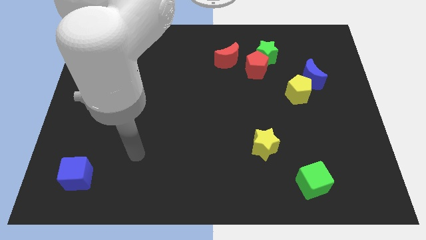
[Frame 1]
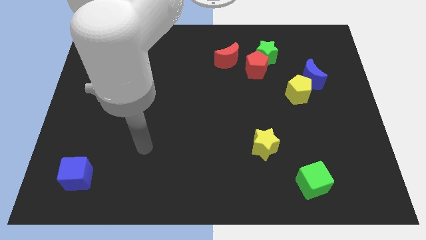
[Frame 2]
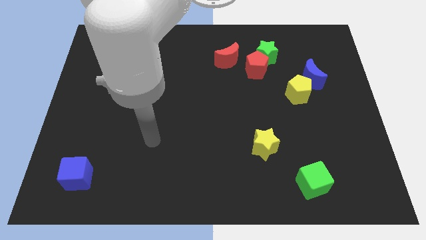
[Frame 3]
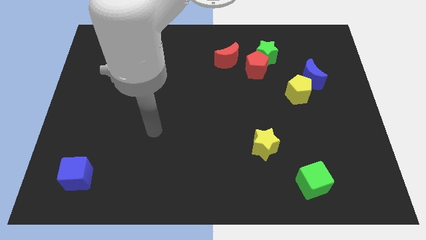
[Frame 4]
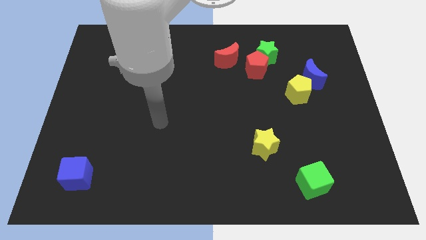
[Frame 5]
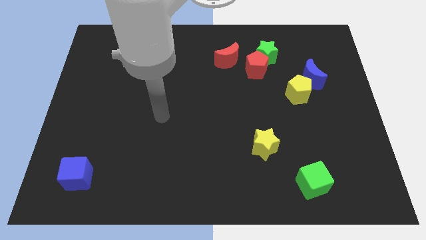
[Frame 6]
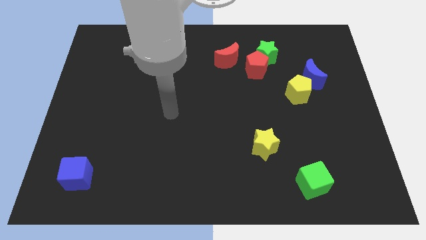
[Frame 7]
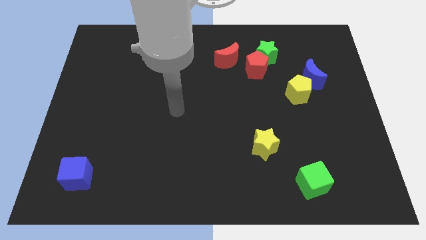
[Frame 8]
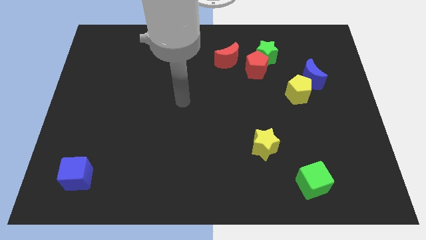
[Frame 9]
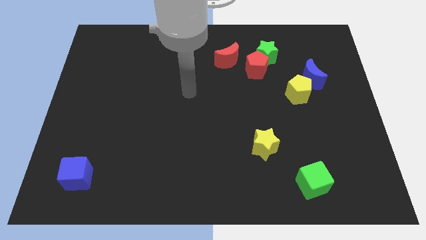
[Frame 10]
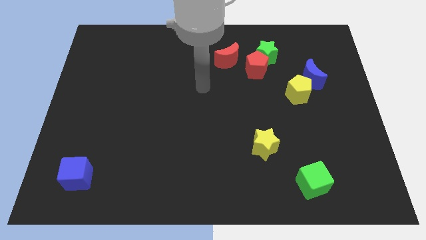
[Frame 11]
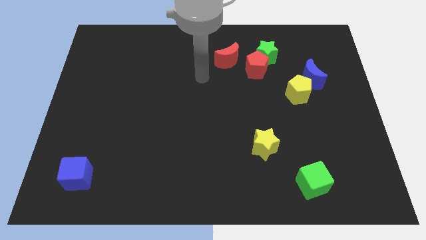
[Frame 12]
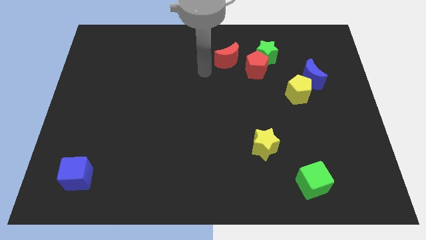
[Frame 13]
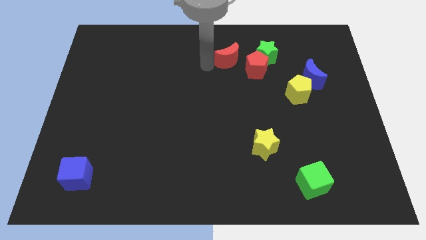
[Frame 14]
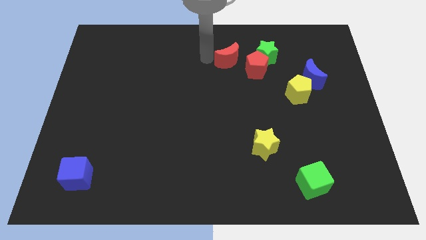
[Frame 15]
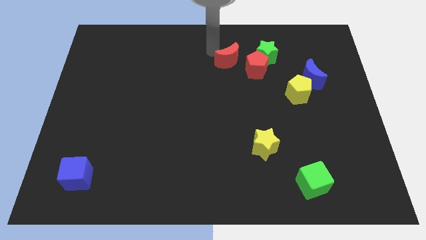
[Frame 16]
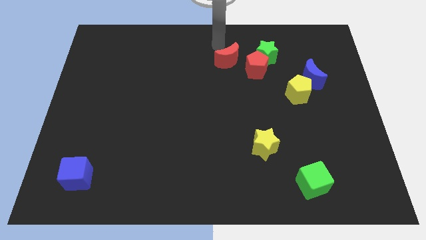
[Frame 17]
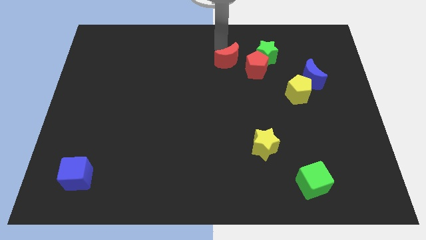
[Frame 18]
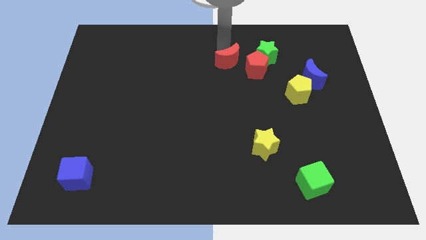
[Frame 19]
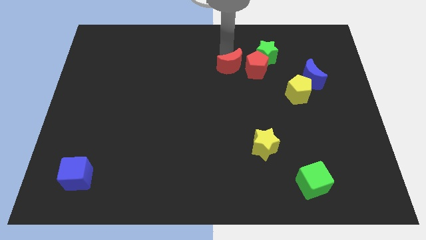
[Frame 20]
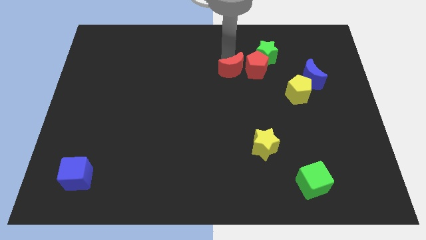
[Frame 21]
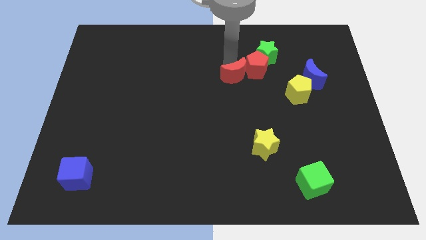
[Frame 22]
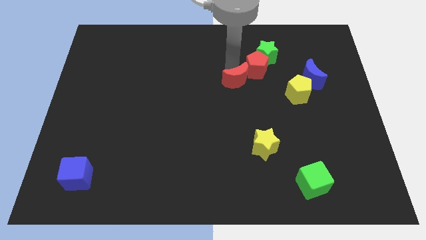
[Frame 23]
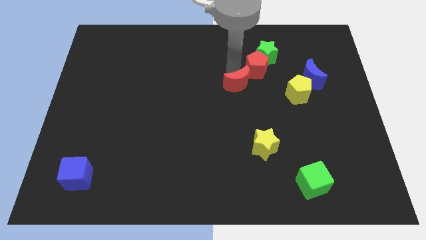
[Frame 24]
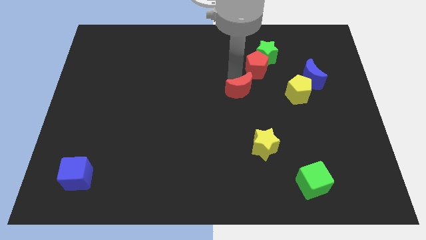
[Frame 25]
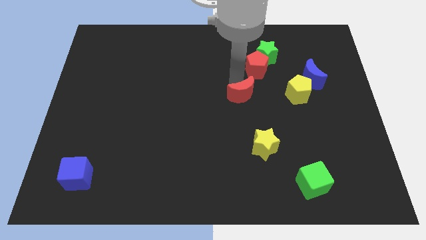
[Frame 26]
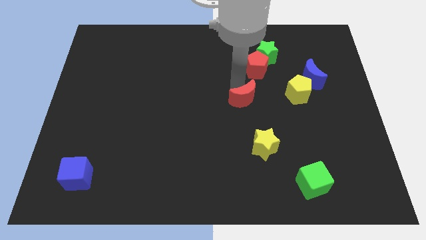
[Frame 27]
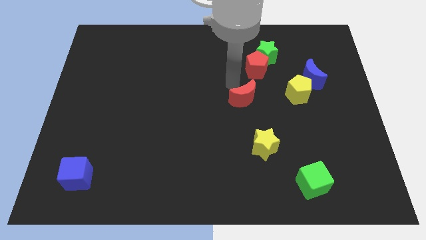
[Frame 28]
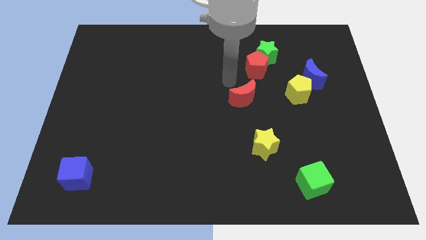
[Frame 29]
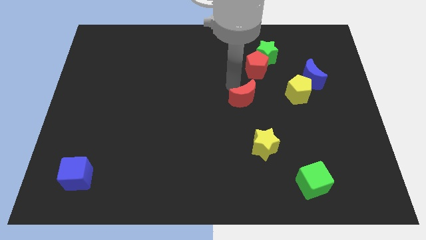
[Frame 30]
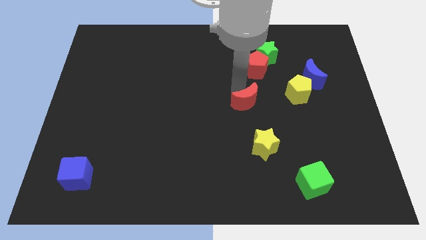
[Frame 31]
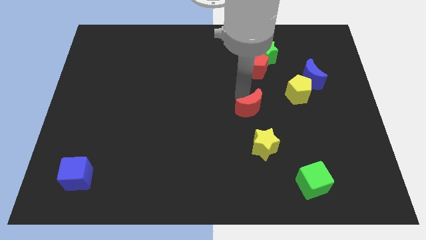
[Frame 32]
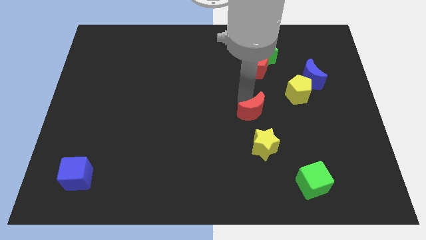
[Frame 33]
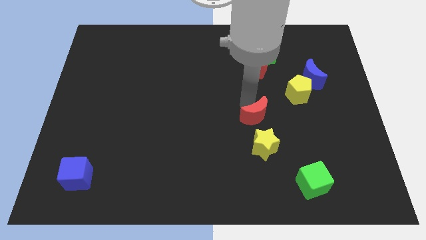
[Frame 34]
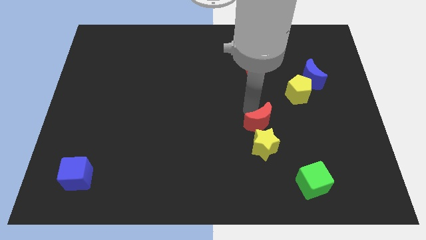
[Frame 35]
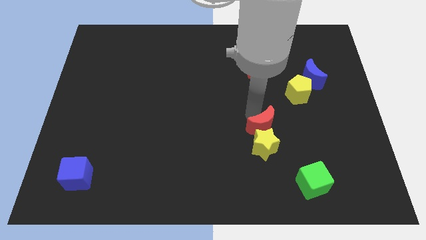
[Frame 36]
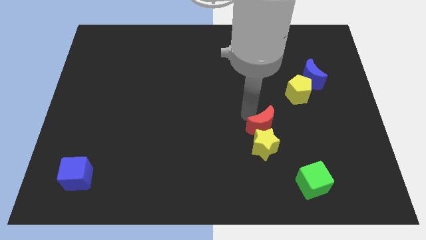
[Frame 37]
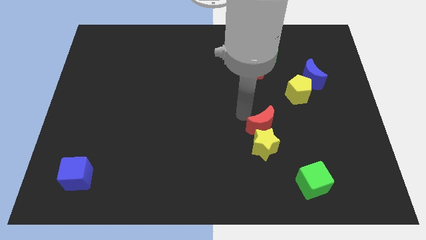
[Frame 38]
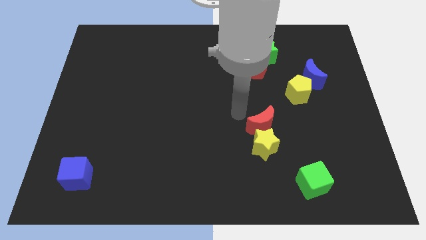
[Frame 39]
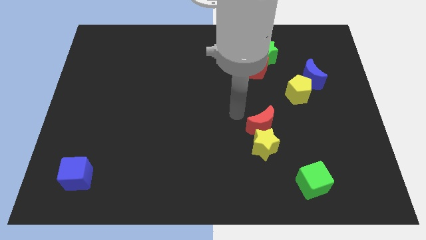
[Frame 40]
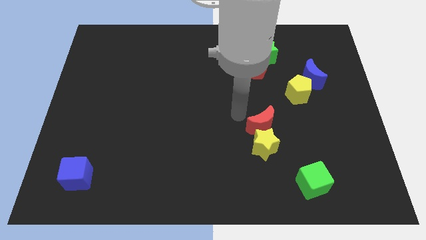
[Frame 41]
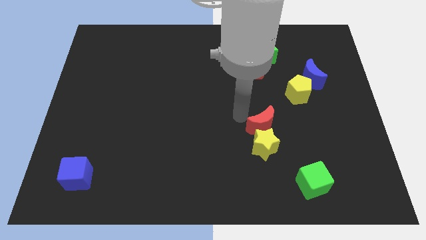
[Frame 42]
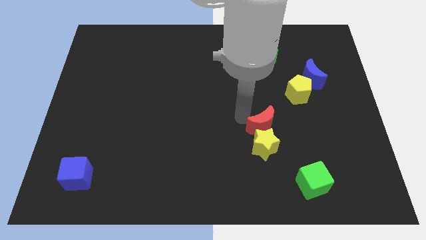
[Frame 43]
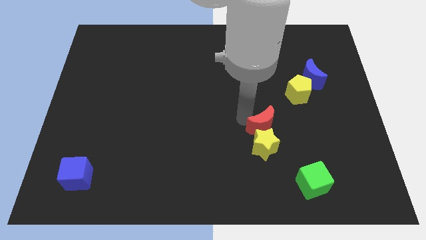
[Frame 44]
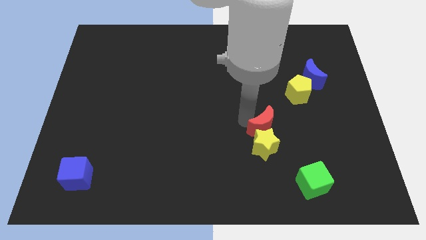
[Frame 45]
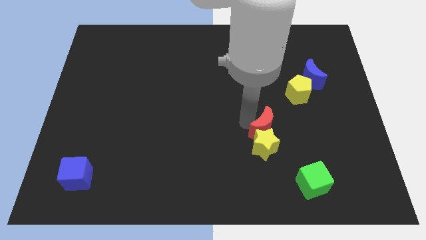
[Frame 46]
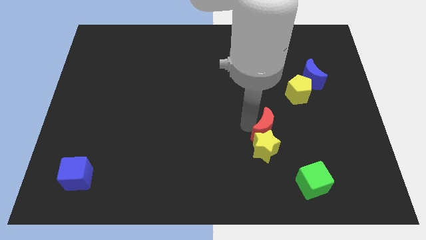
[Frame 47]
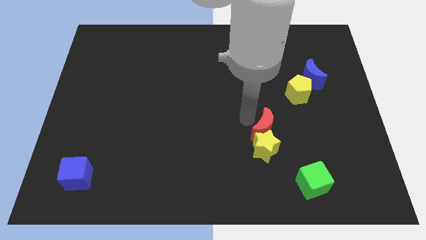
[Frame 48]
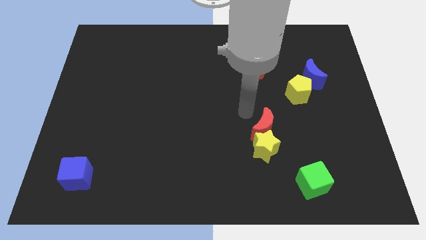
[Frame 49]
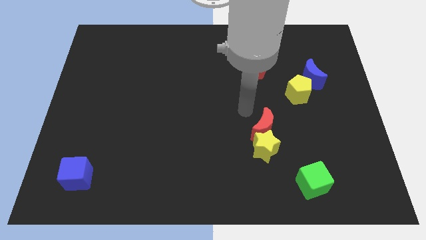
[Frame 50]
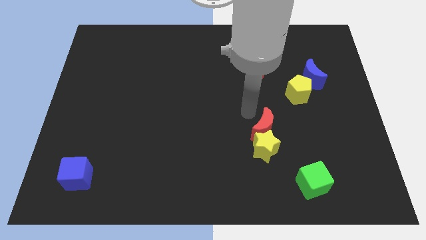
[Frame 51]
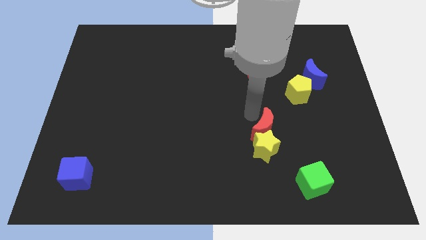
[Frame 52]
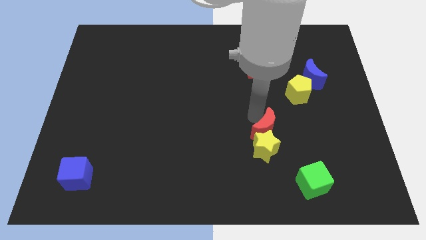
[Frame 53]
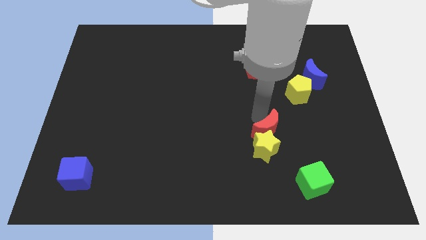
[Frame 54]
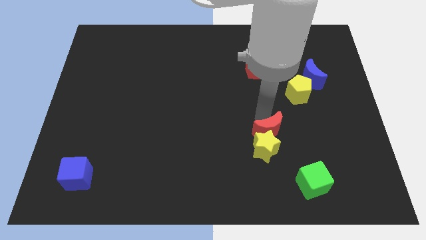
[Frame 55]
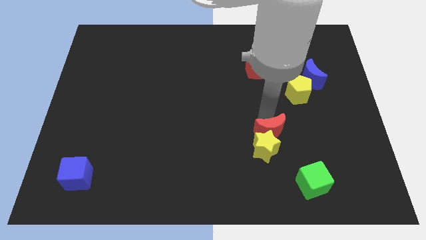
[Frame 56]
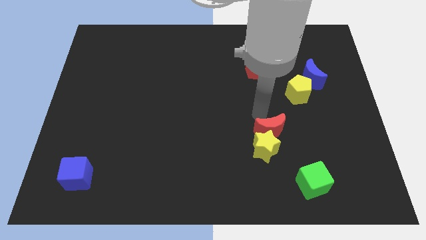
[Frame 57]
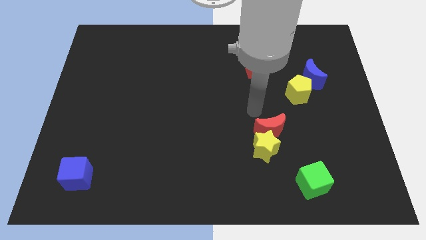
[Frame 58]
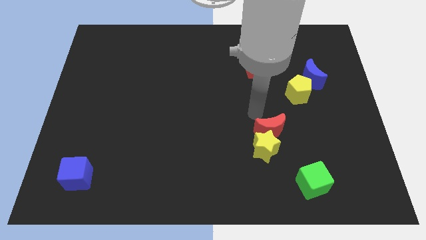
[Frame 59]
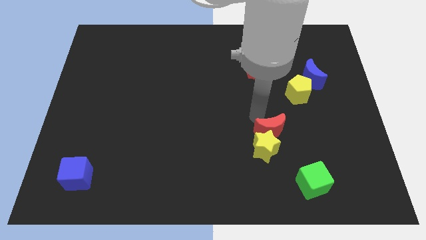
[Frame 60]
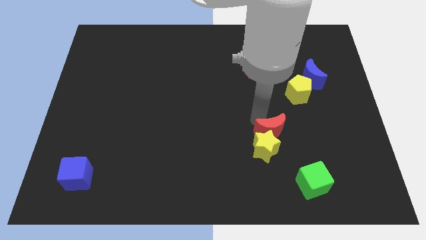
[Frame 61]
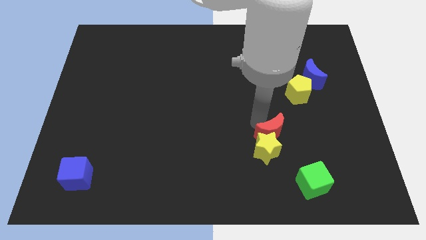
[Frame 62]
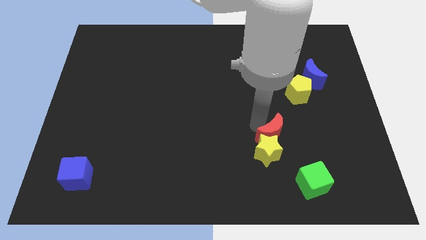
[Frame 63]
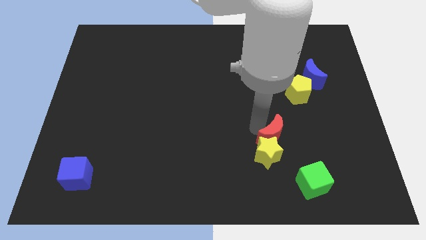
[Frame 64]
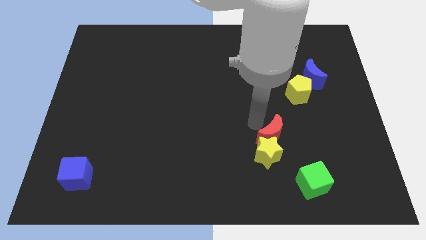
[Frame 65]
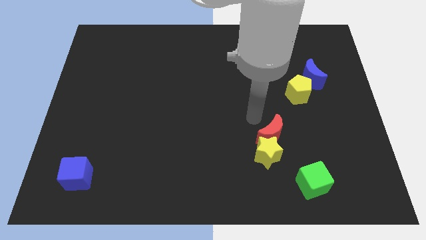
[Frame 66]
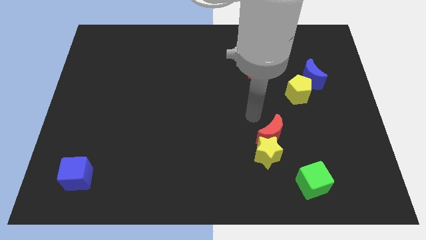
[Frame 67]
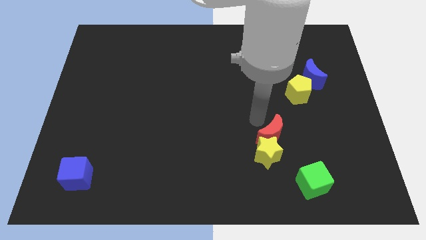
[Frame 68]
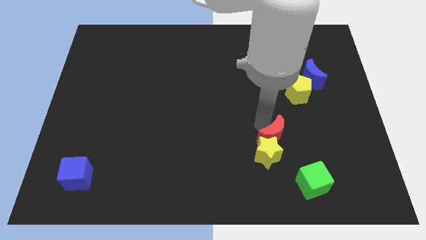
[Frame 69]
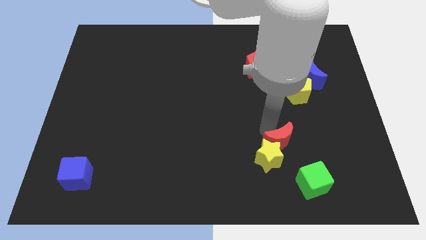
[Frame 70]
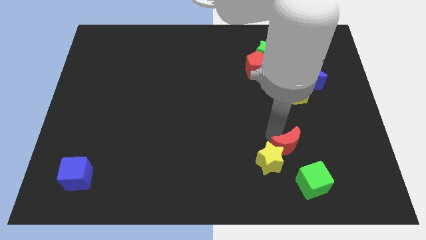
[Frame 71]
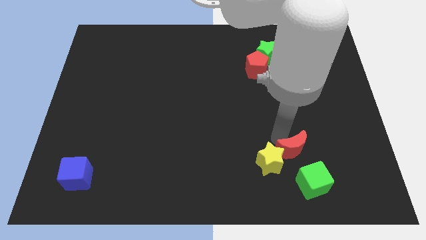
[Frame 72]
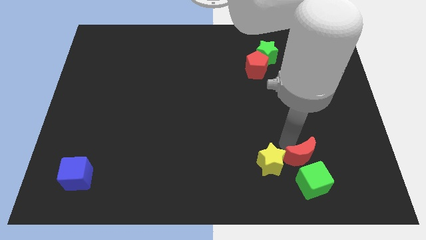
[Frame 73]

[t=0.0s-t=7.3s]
push the red moon next to the green cube
